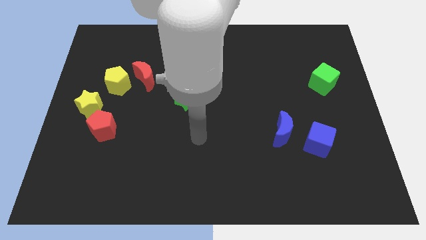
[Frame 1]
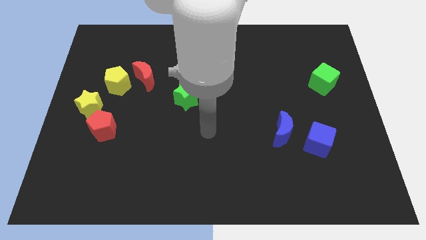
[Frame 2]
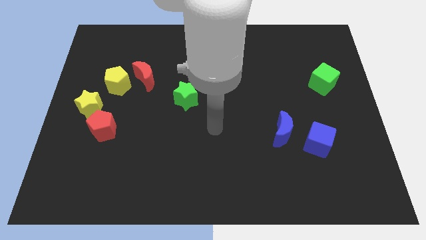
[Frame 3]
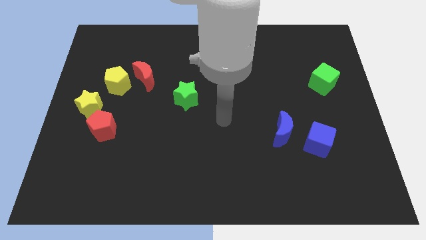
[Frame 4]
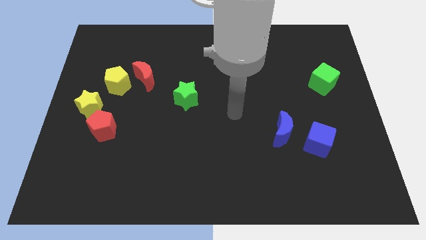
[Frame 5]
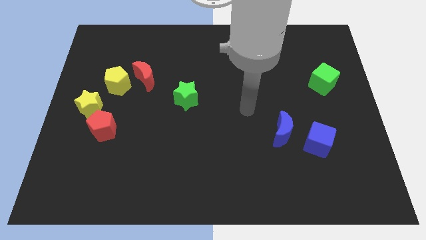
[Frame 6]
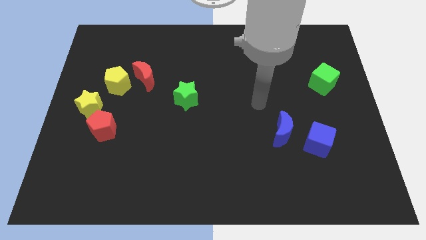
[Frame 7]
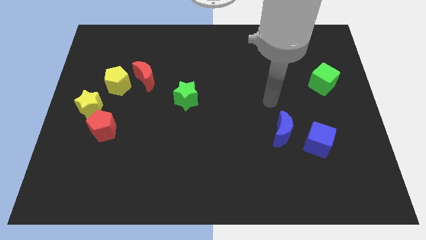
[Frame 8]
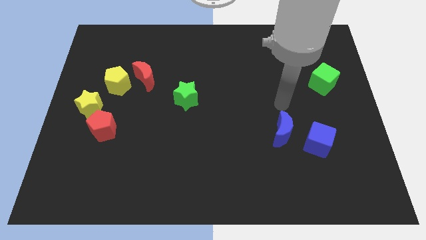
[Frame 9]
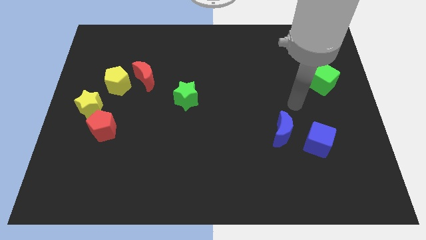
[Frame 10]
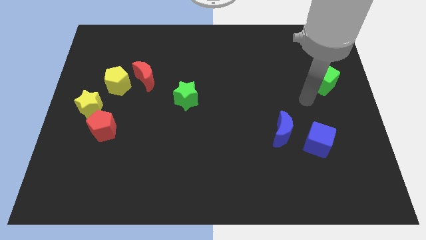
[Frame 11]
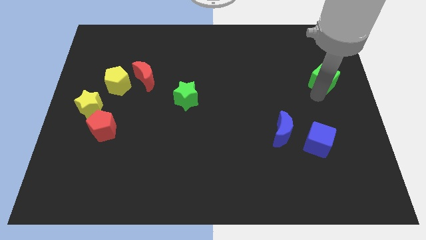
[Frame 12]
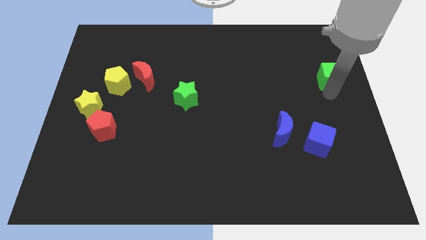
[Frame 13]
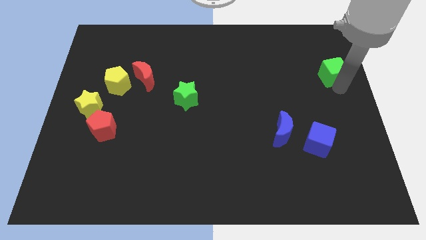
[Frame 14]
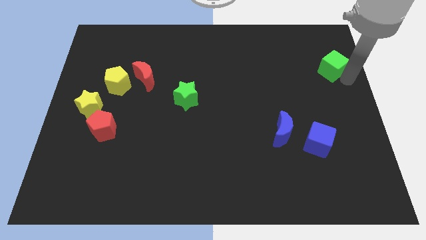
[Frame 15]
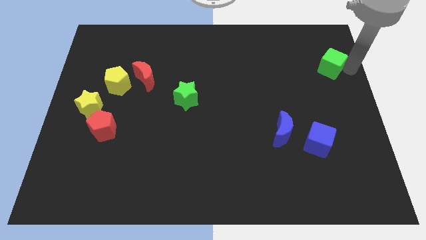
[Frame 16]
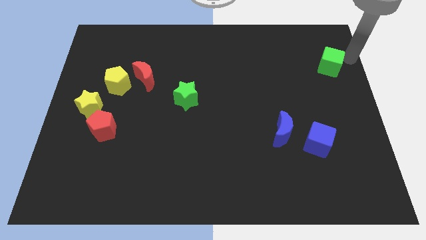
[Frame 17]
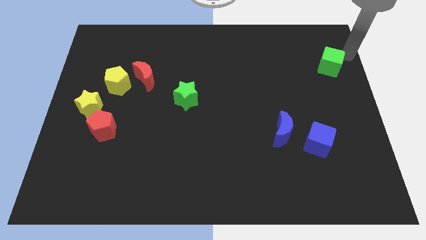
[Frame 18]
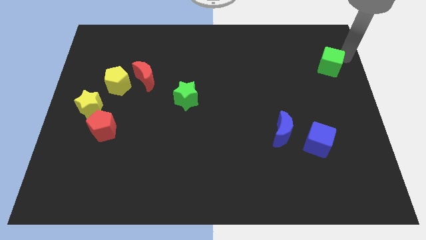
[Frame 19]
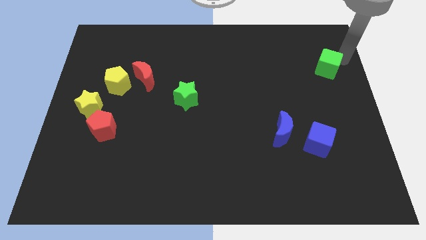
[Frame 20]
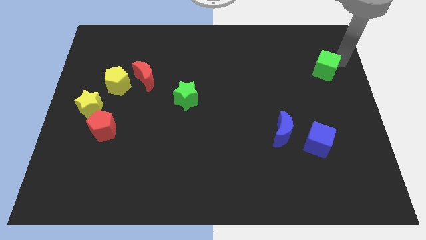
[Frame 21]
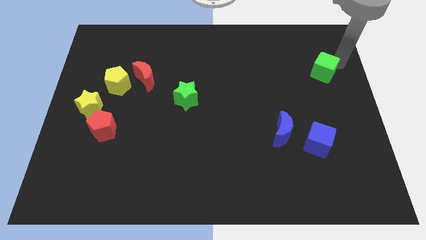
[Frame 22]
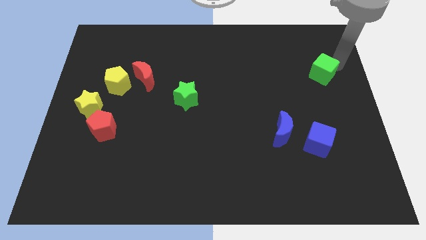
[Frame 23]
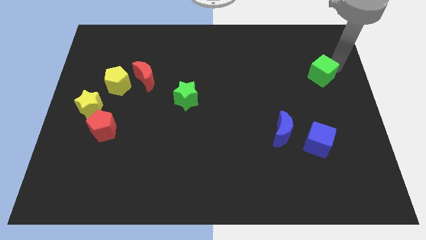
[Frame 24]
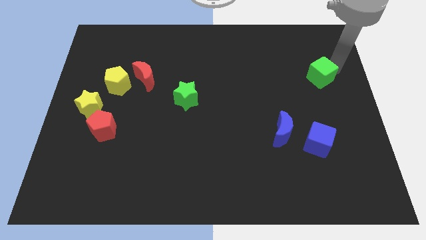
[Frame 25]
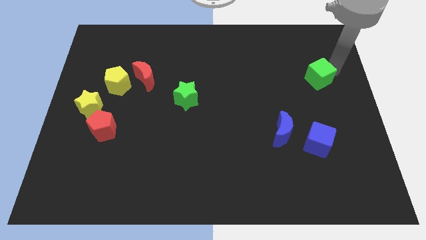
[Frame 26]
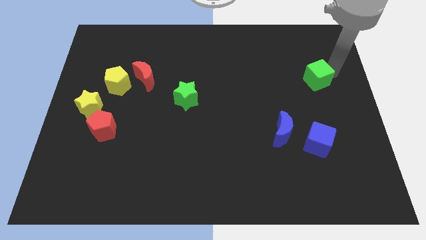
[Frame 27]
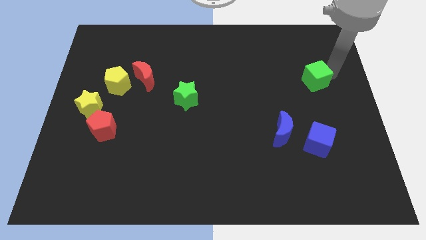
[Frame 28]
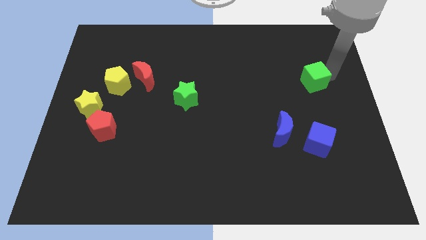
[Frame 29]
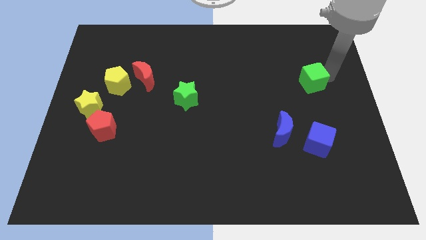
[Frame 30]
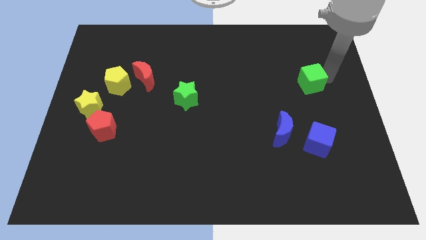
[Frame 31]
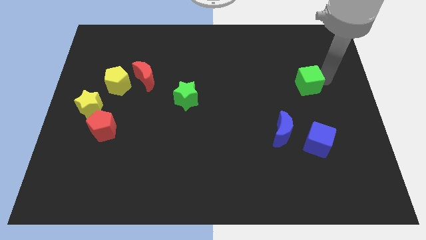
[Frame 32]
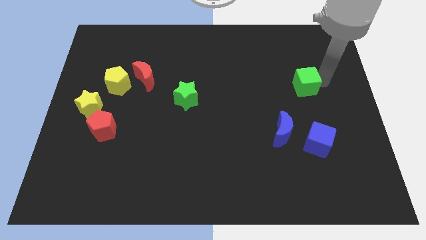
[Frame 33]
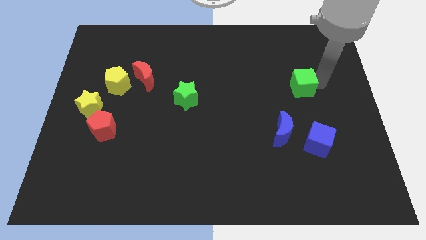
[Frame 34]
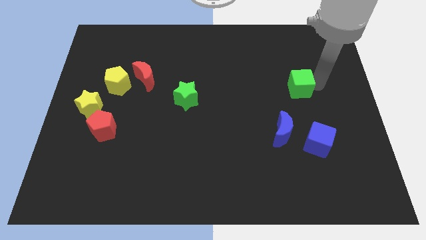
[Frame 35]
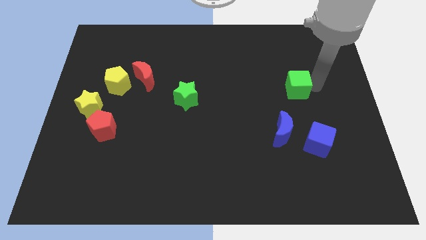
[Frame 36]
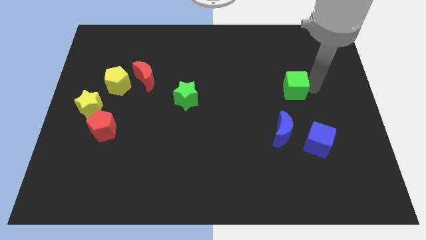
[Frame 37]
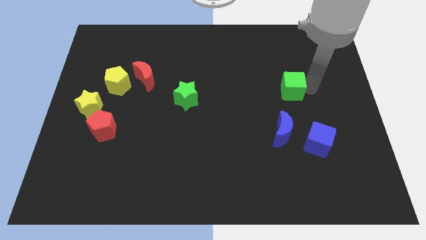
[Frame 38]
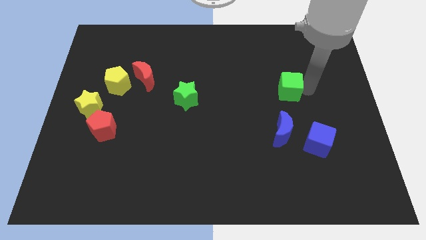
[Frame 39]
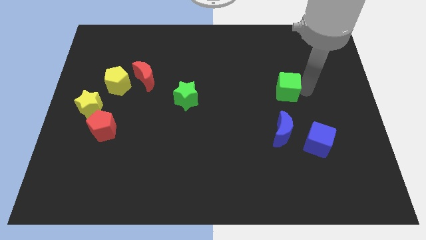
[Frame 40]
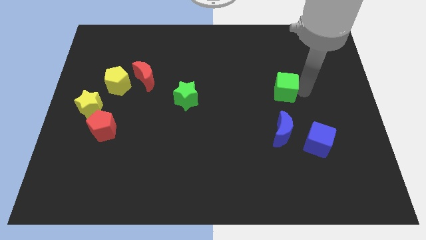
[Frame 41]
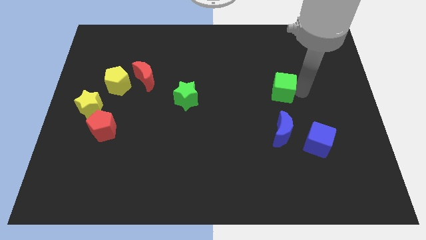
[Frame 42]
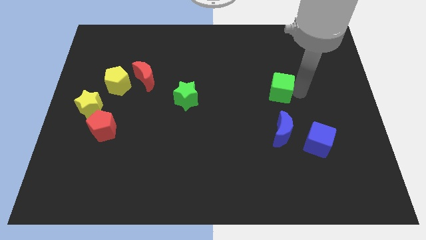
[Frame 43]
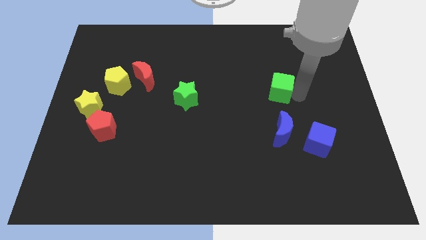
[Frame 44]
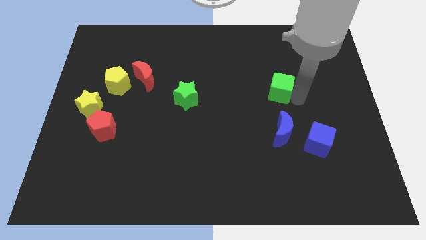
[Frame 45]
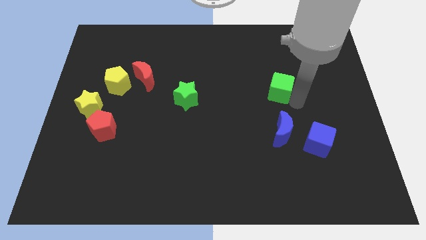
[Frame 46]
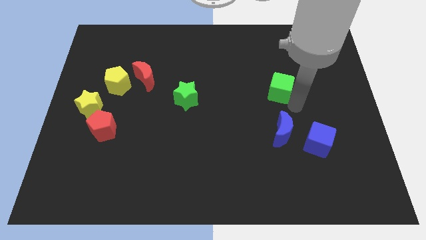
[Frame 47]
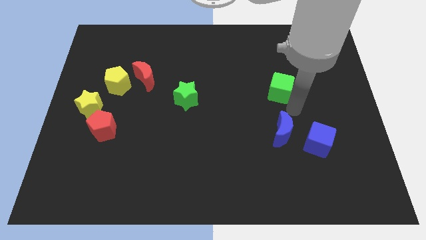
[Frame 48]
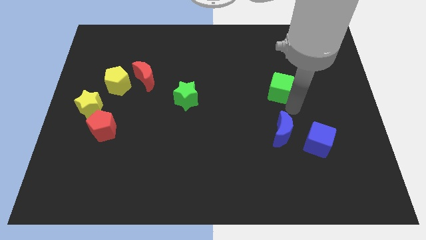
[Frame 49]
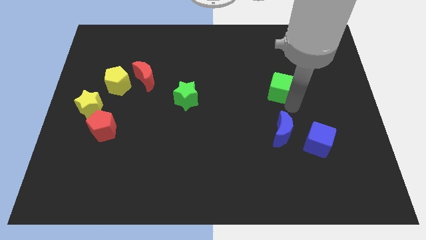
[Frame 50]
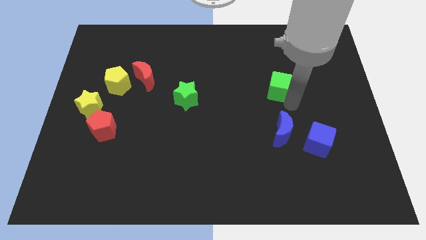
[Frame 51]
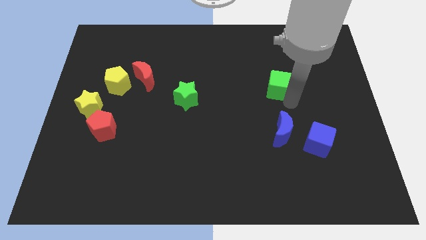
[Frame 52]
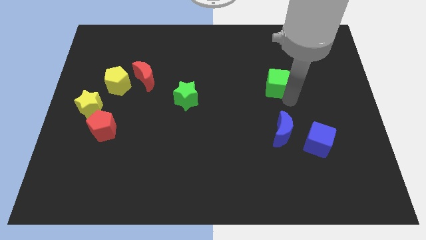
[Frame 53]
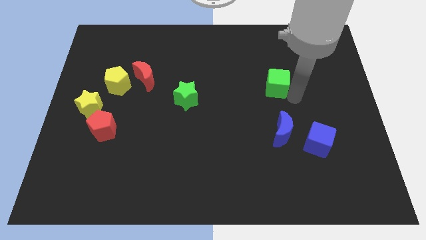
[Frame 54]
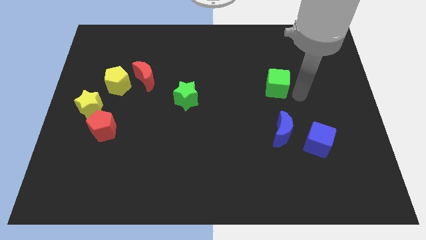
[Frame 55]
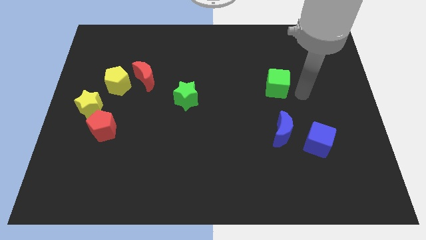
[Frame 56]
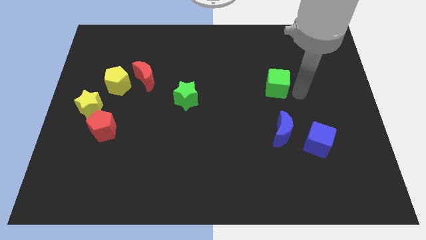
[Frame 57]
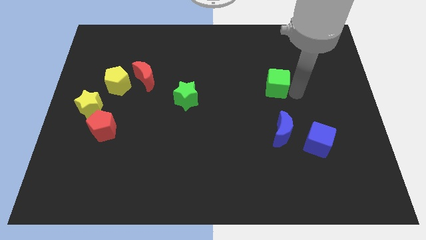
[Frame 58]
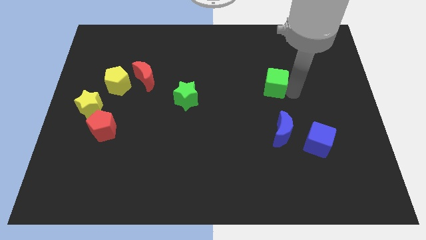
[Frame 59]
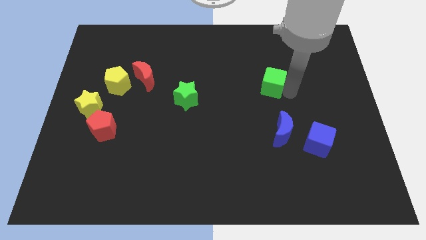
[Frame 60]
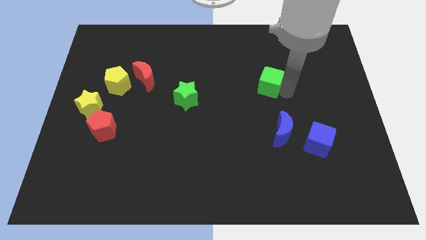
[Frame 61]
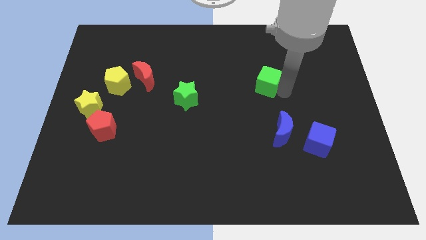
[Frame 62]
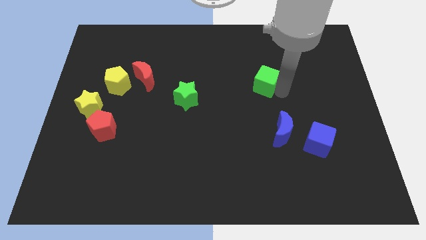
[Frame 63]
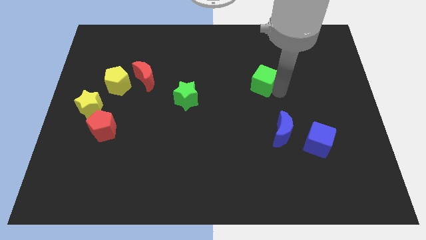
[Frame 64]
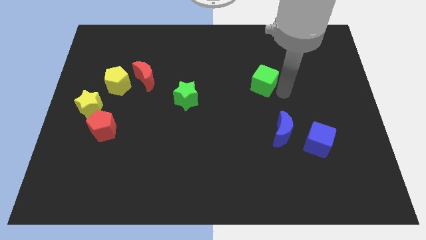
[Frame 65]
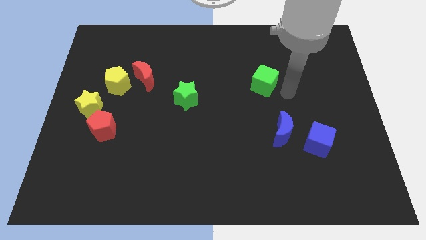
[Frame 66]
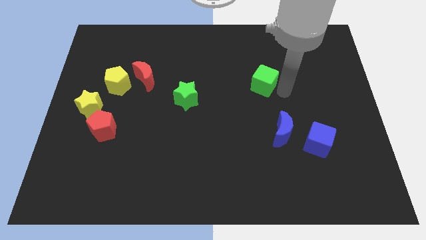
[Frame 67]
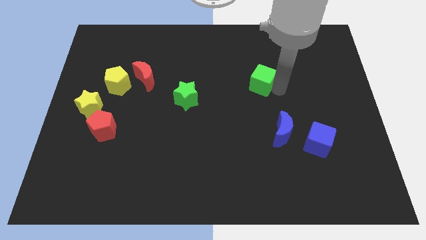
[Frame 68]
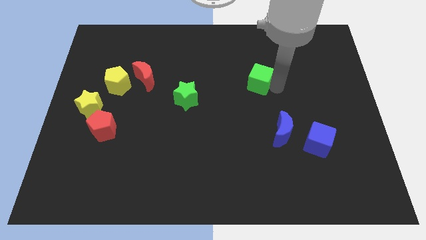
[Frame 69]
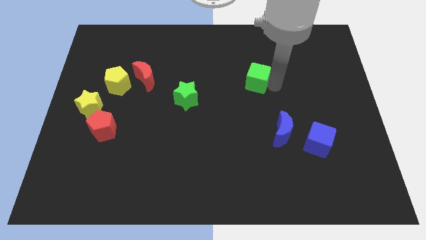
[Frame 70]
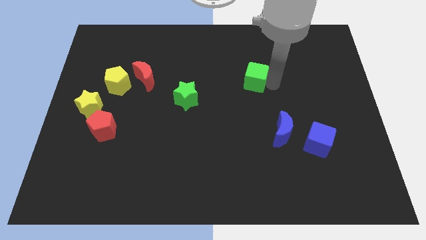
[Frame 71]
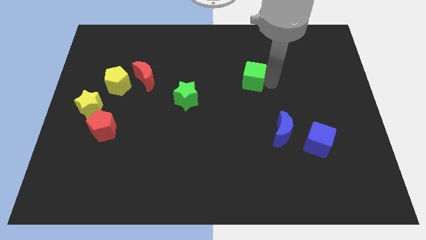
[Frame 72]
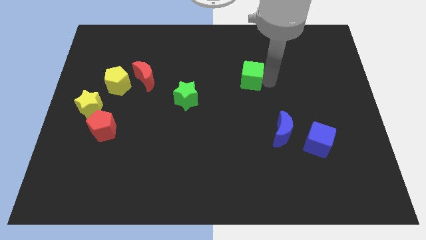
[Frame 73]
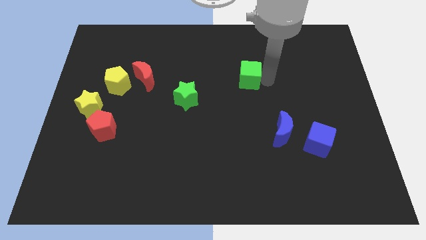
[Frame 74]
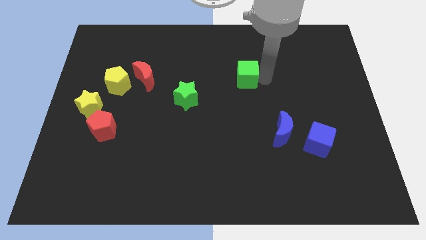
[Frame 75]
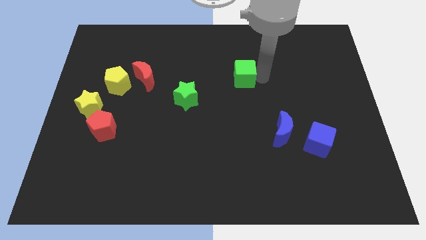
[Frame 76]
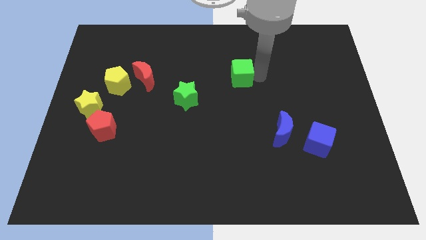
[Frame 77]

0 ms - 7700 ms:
slide the green cube left
